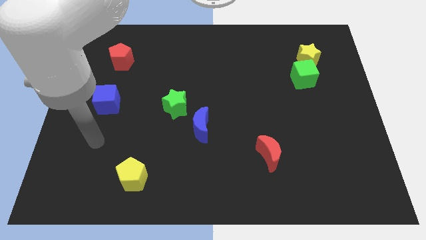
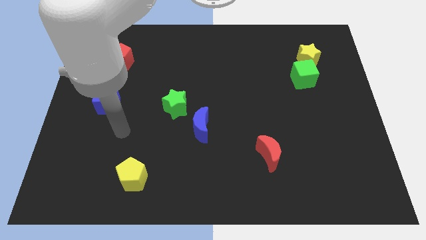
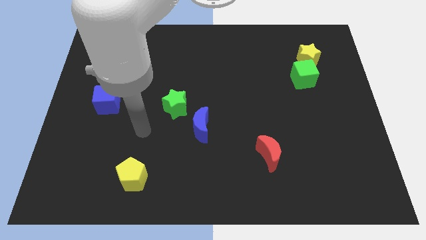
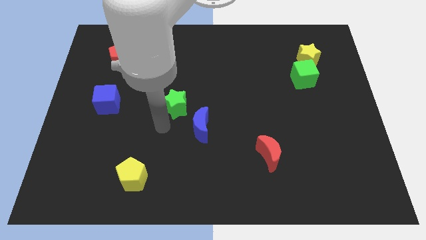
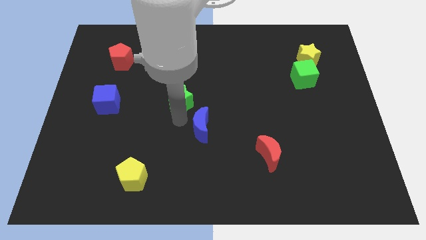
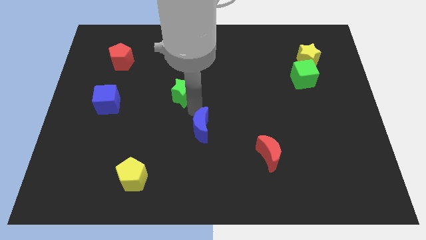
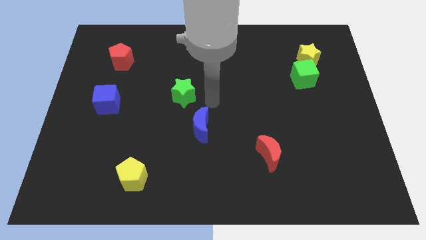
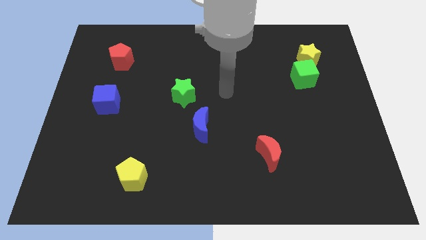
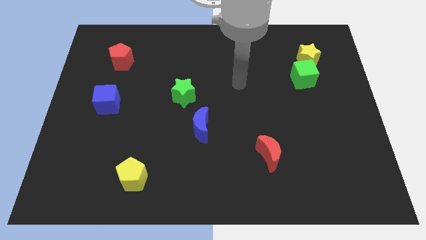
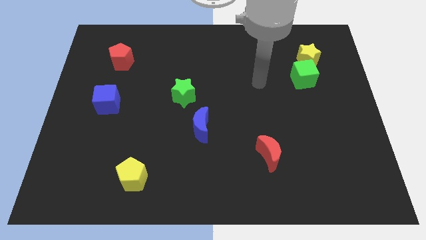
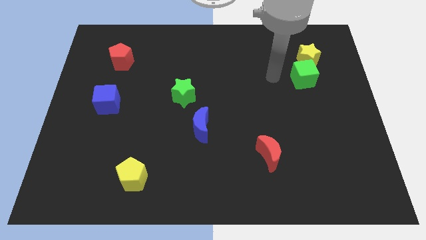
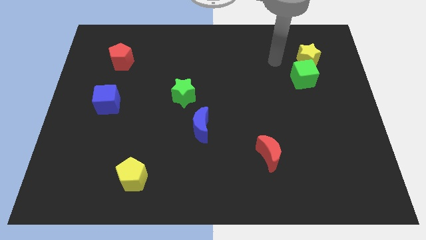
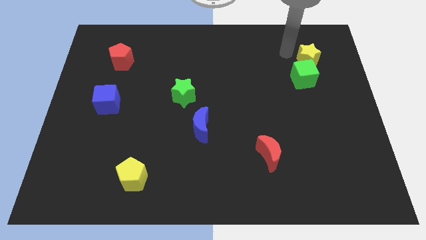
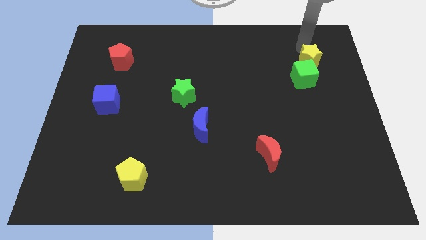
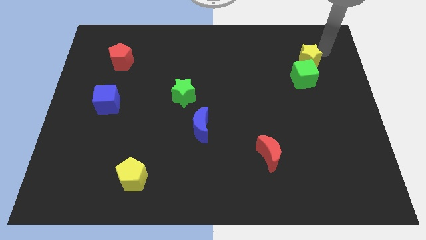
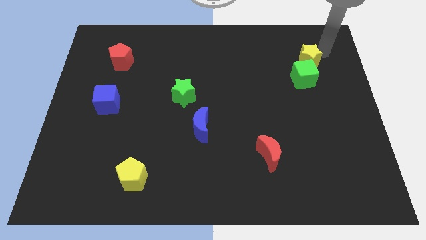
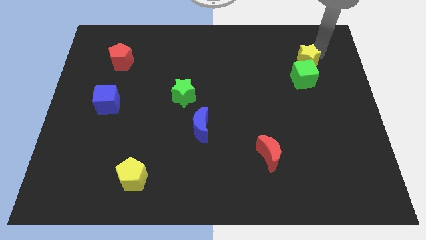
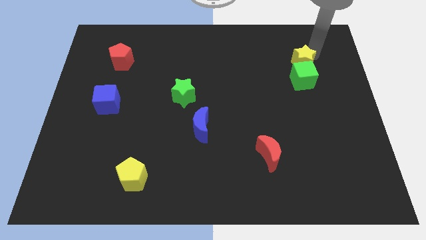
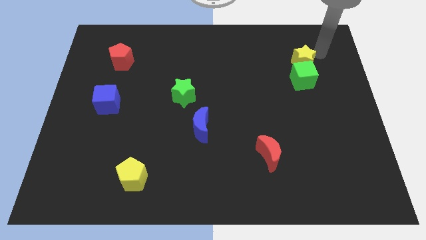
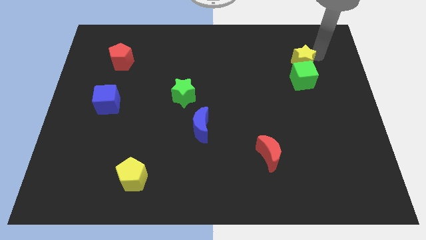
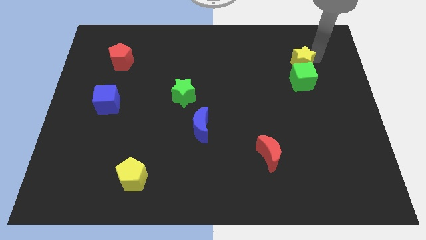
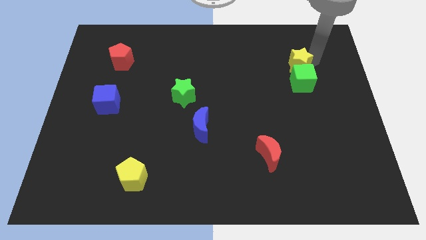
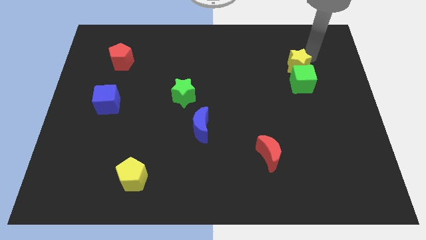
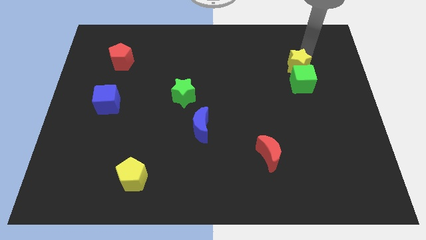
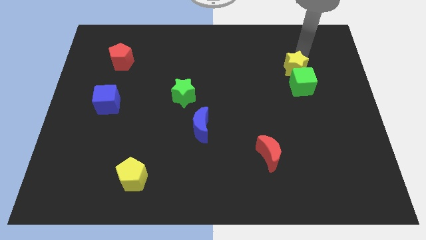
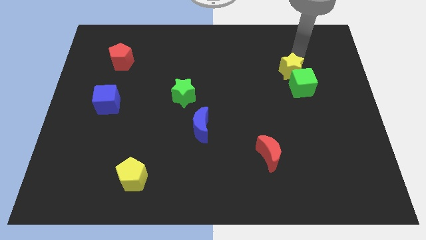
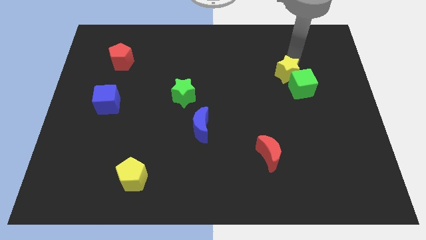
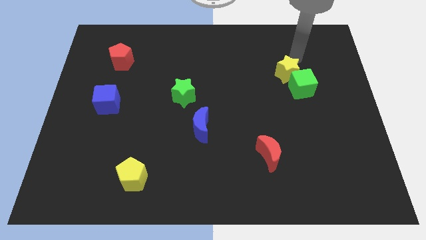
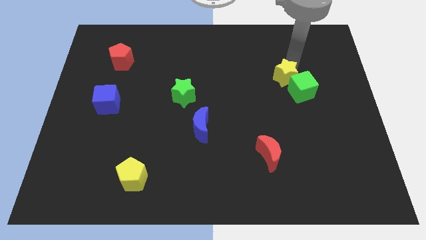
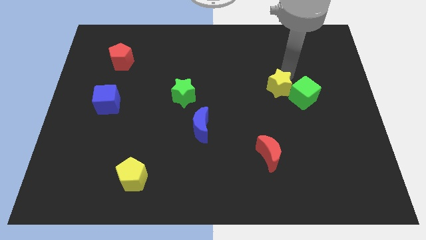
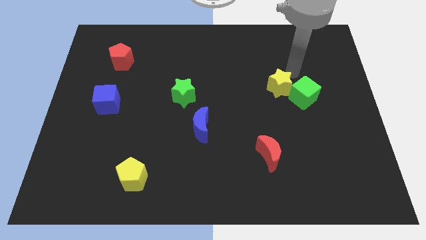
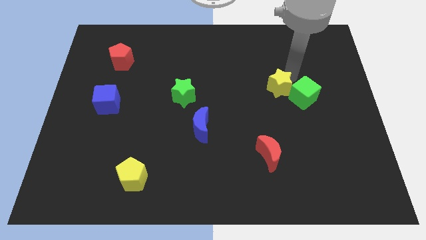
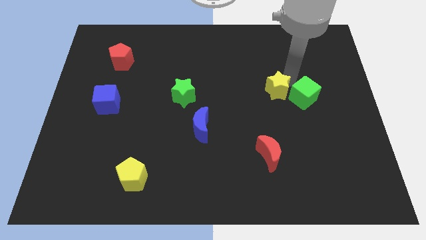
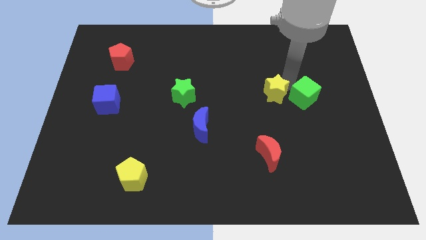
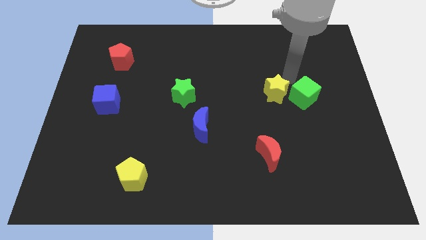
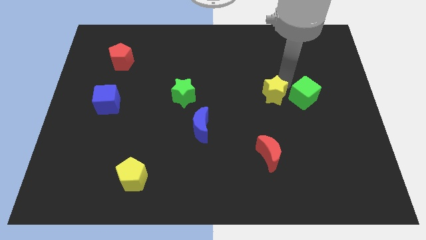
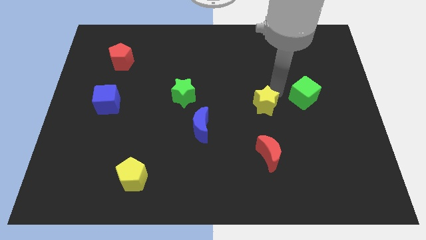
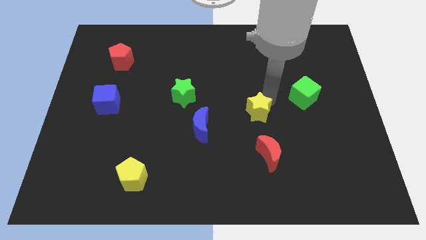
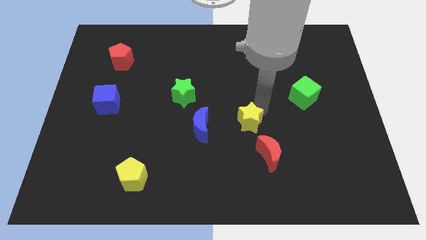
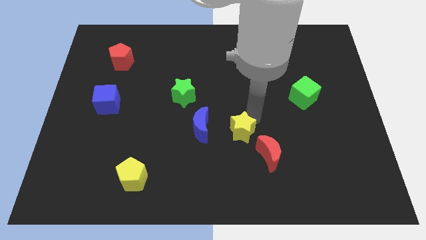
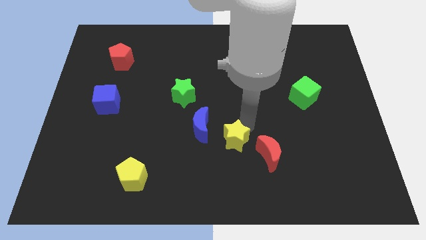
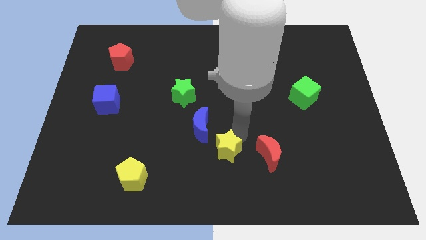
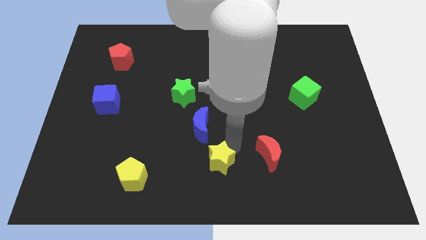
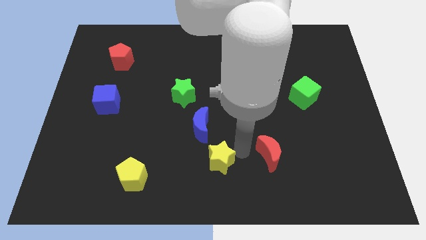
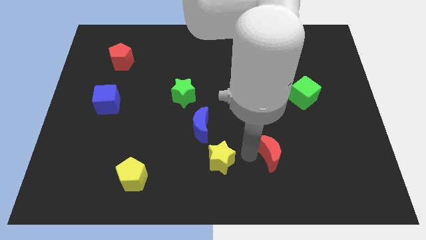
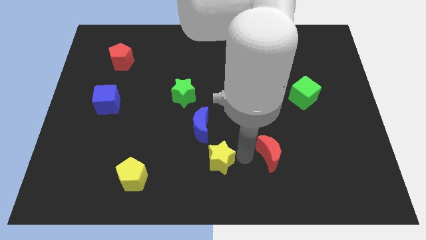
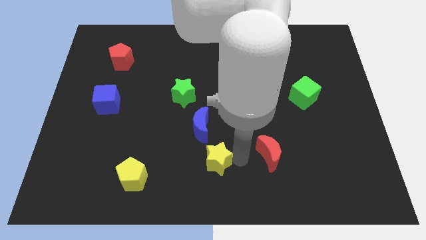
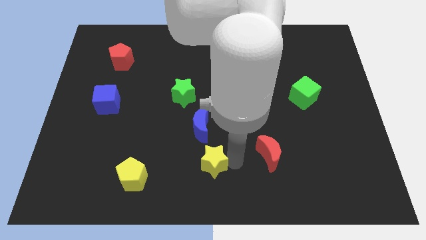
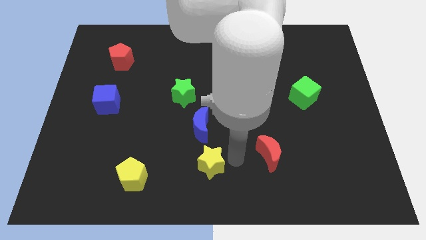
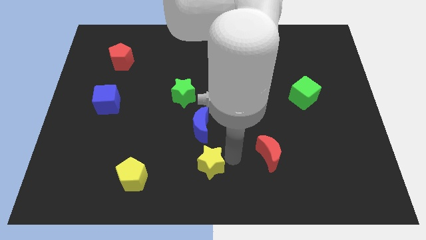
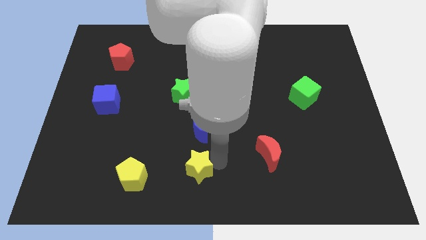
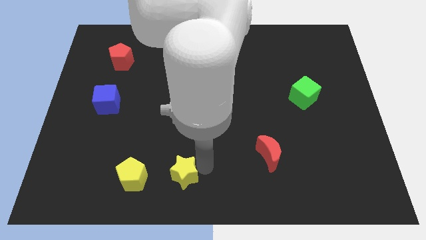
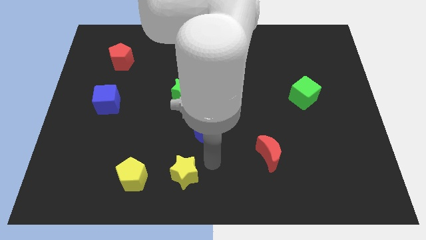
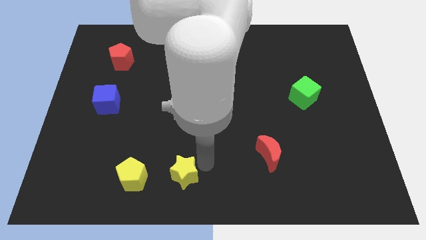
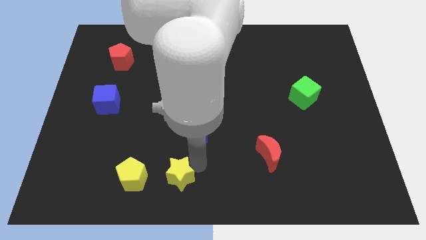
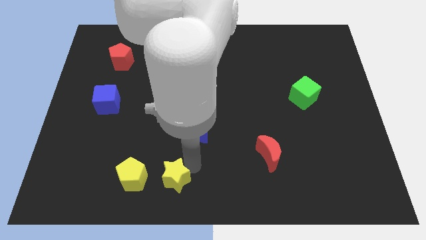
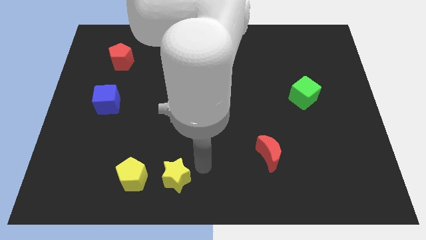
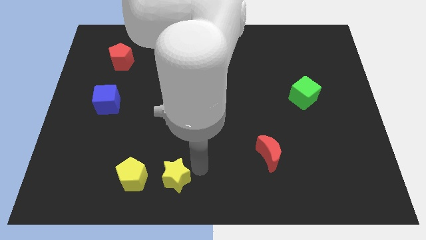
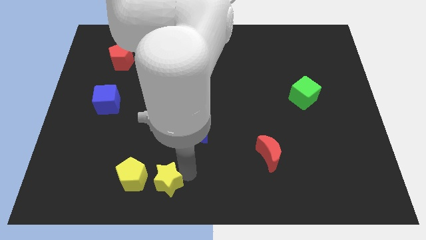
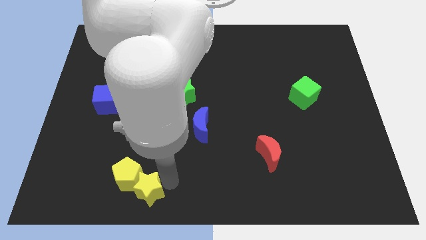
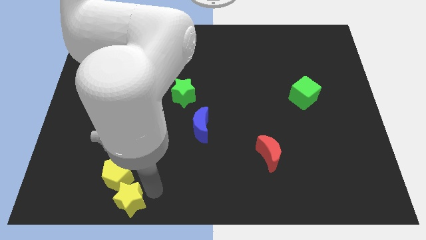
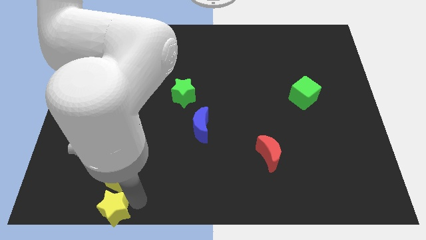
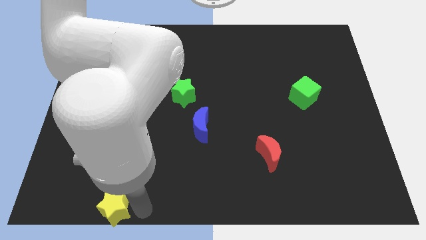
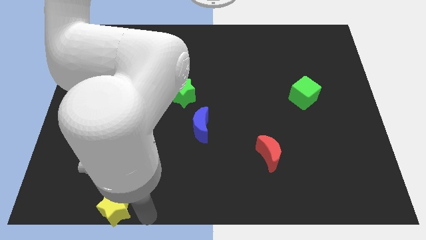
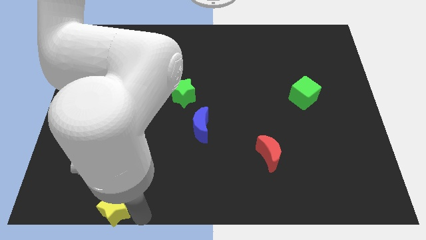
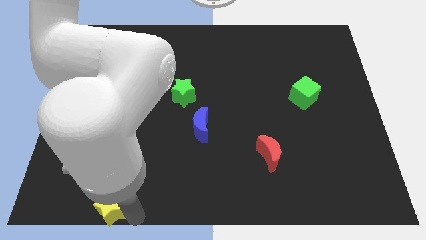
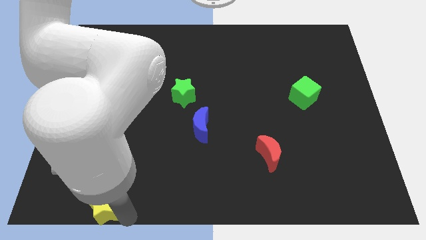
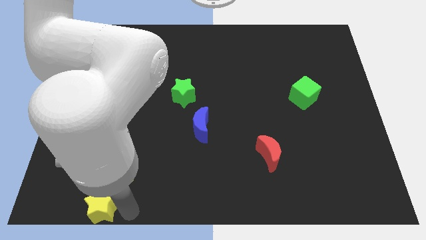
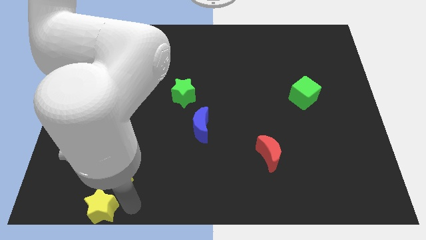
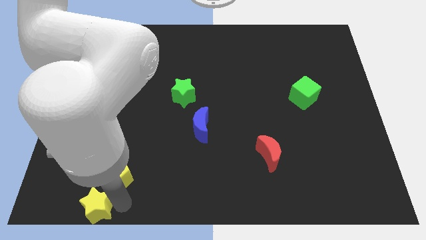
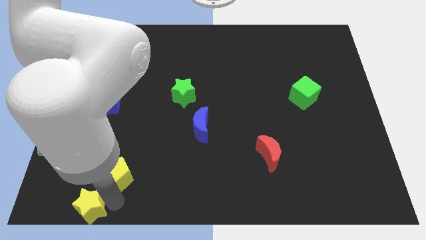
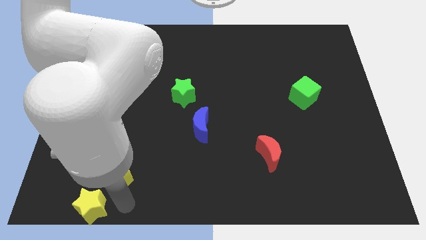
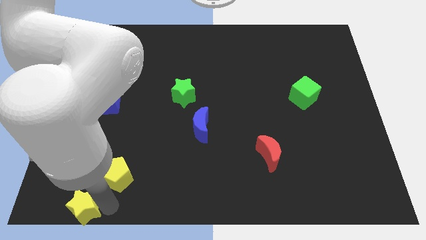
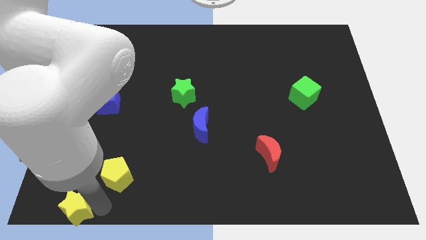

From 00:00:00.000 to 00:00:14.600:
move the yellow star to the bottom left of the board

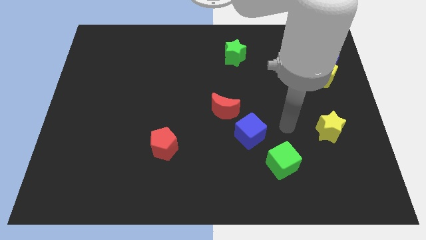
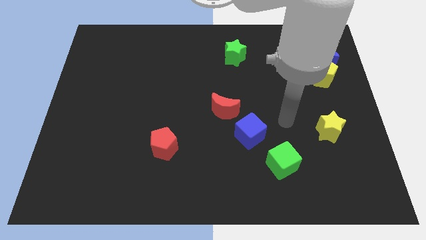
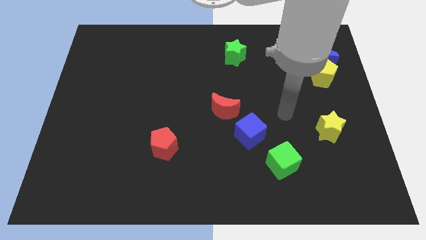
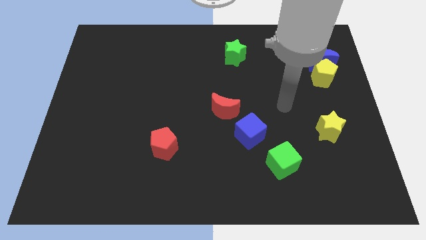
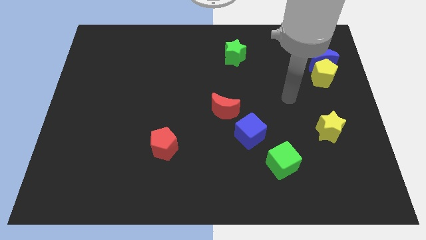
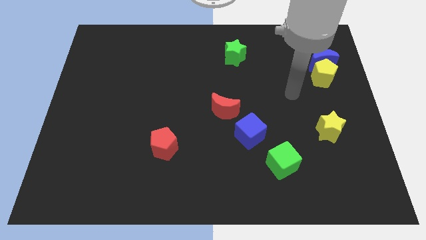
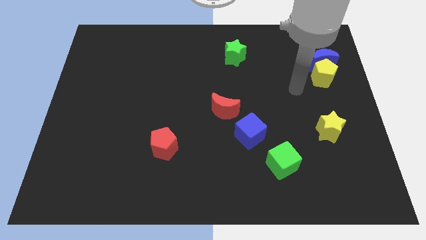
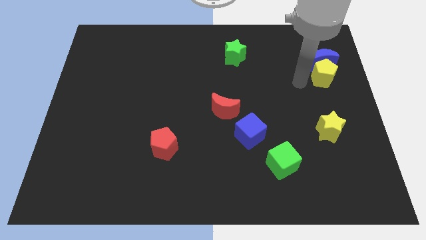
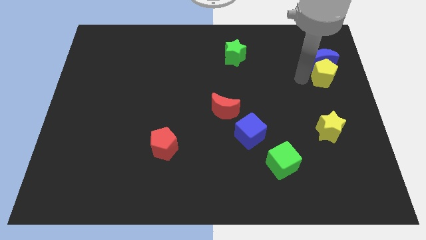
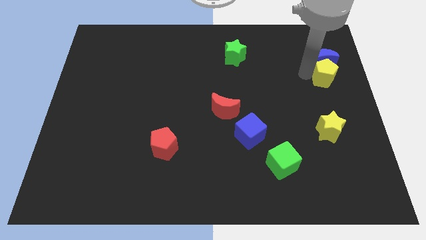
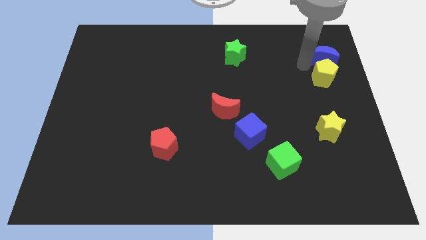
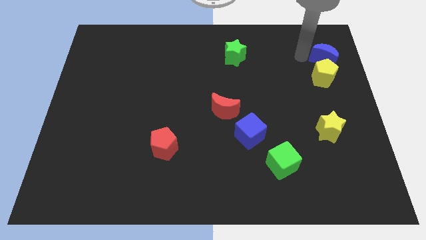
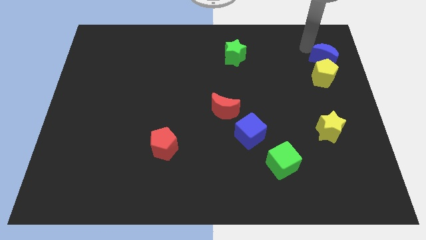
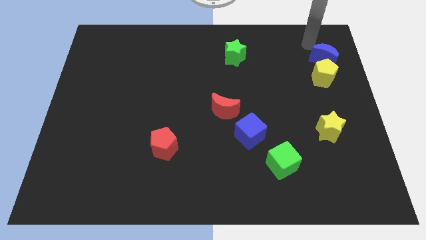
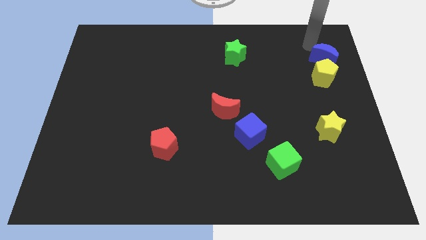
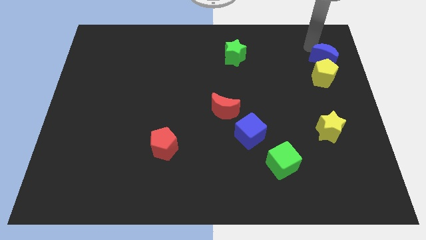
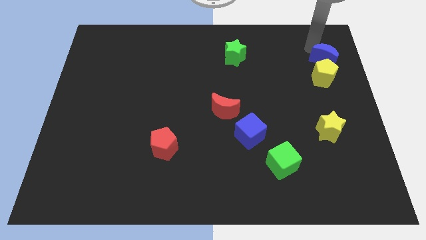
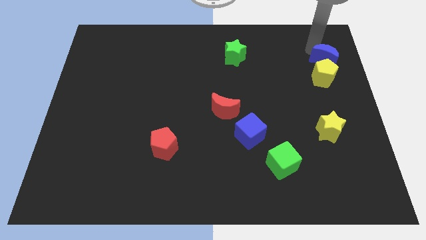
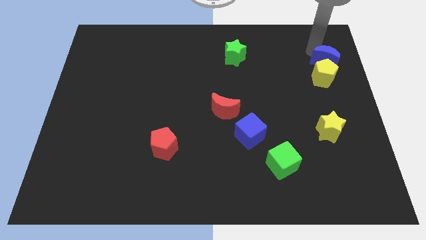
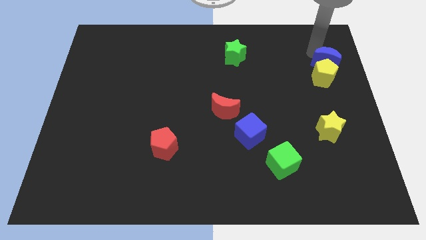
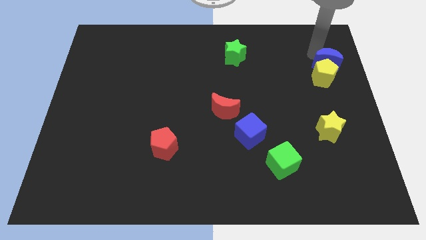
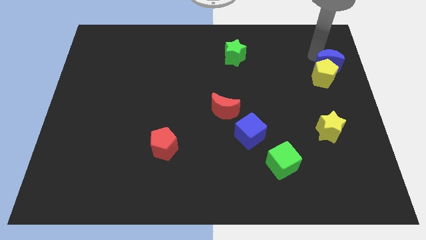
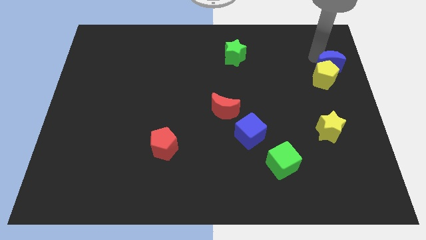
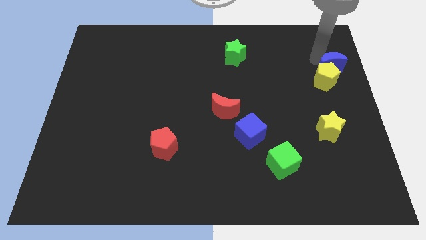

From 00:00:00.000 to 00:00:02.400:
slide the blue moon to the right side of the board
